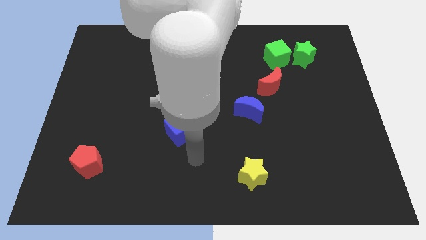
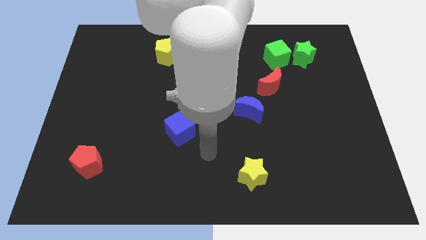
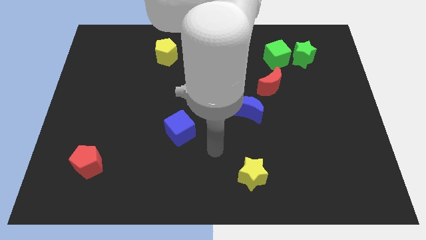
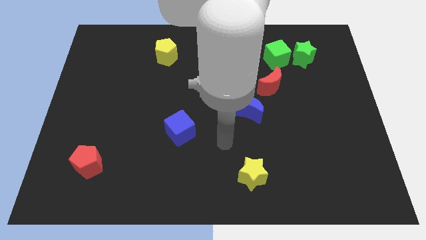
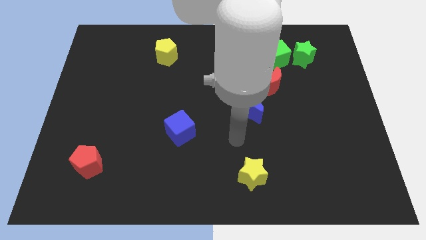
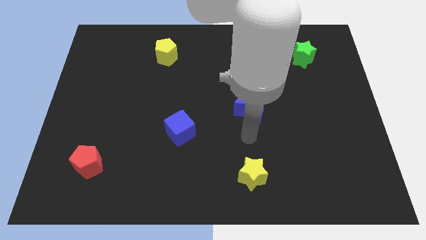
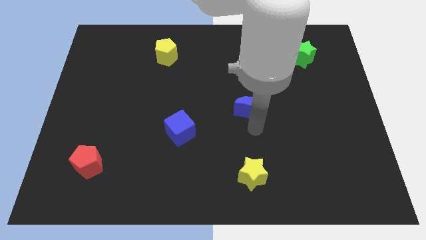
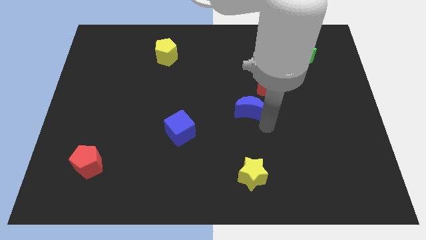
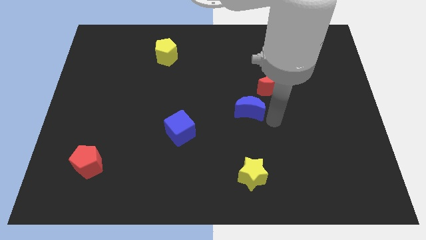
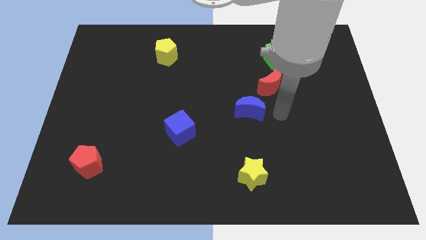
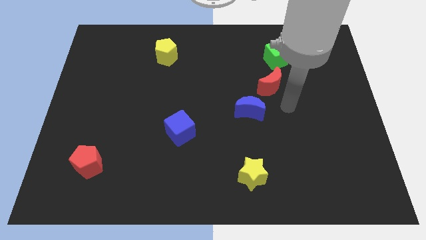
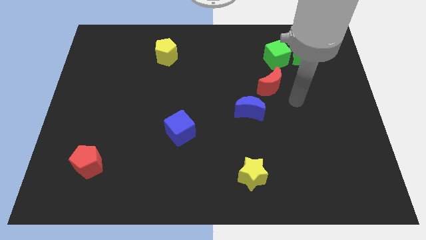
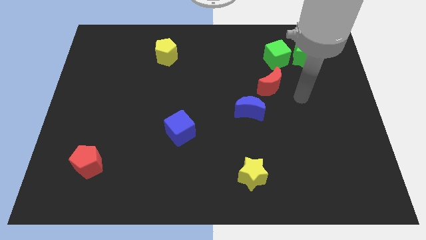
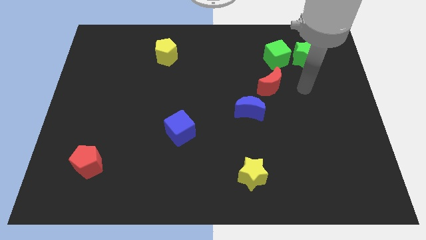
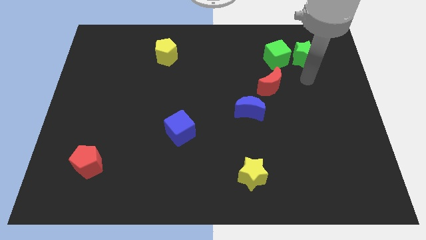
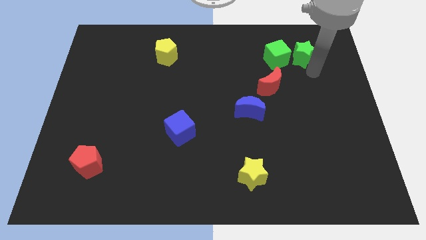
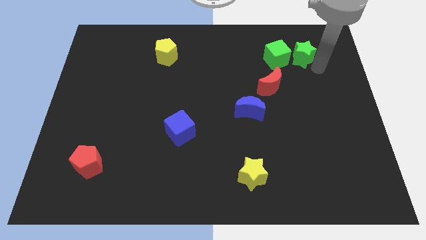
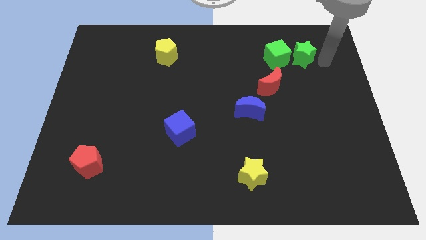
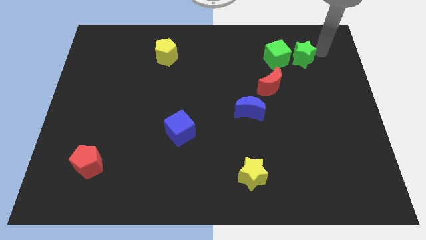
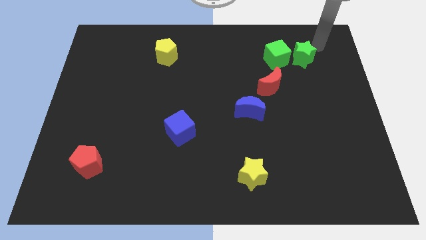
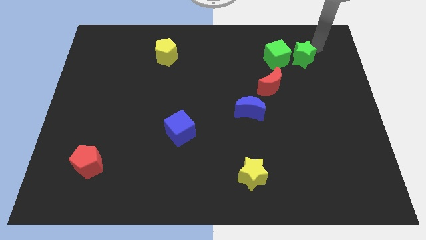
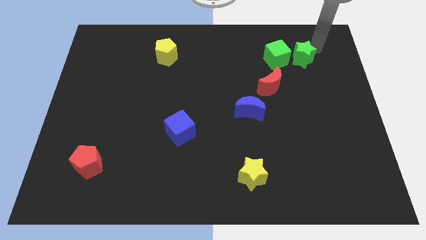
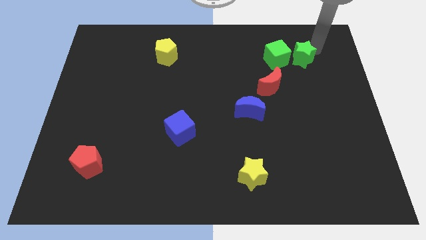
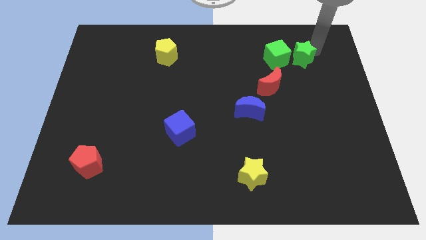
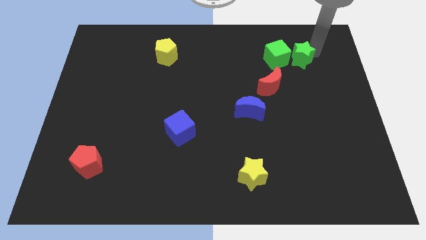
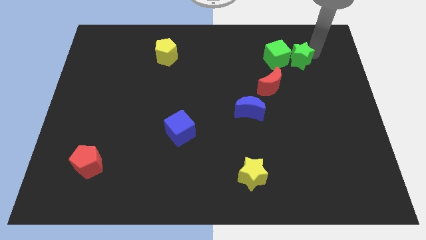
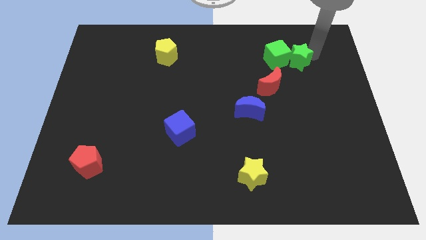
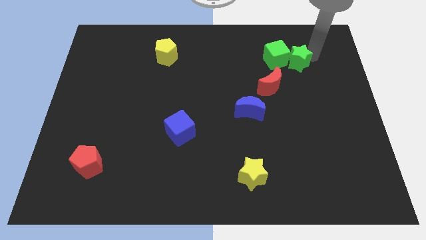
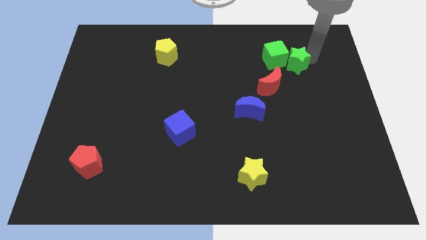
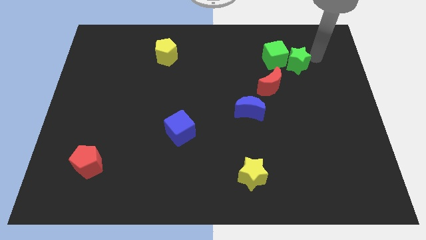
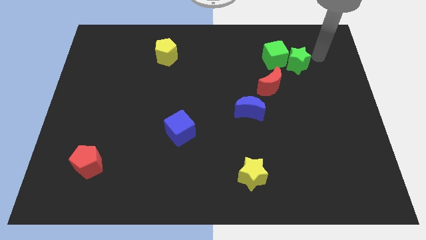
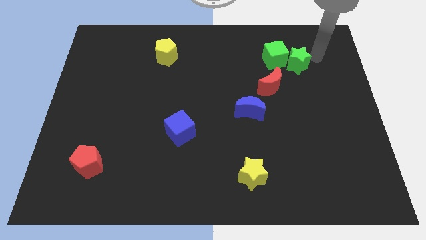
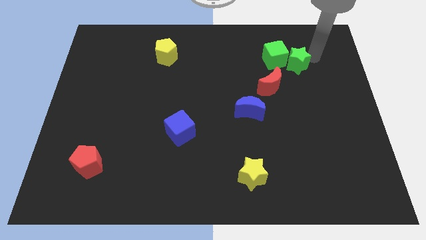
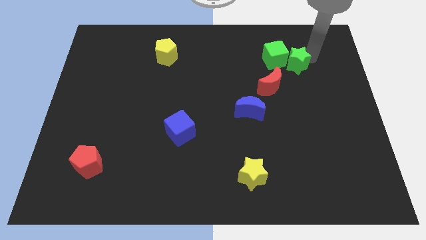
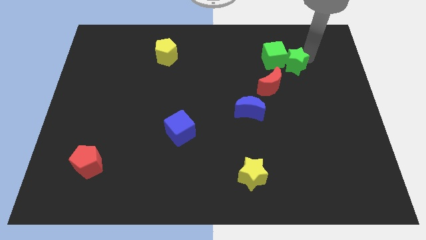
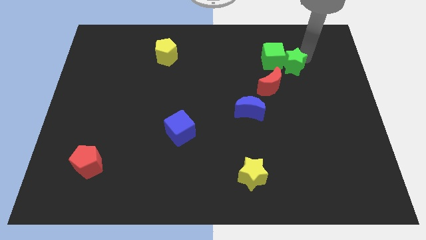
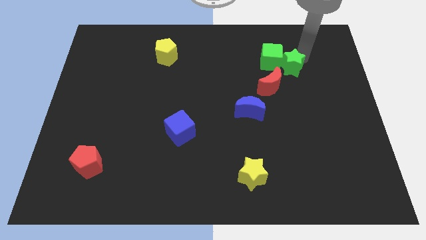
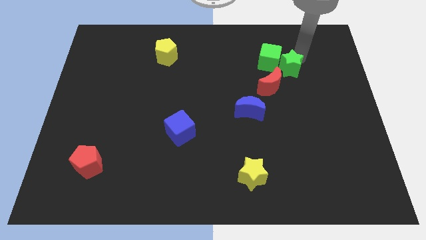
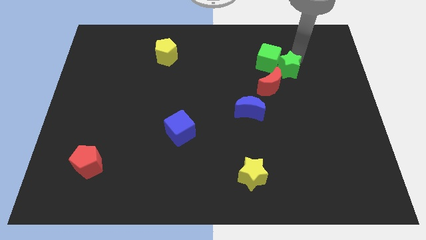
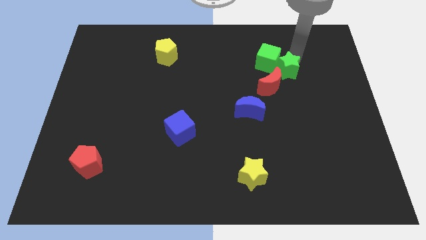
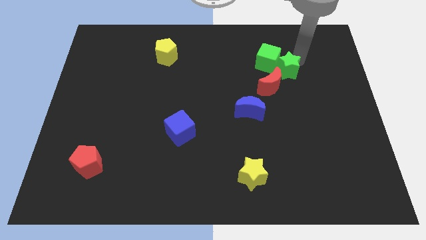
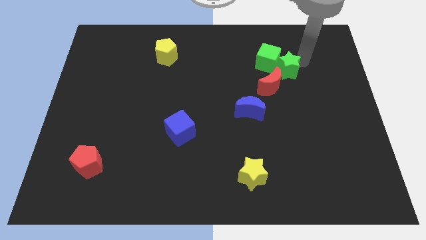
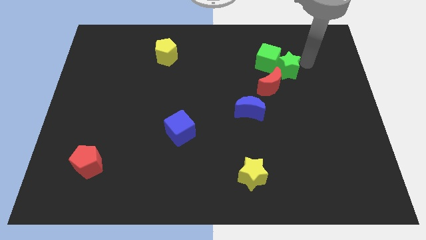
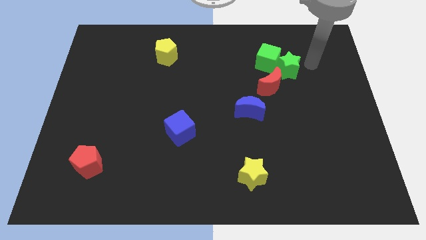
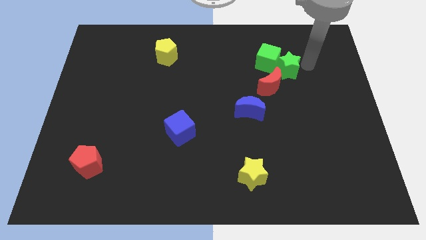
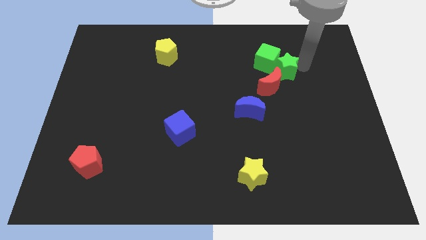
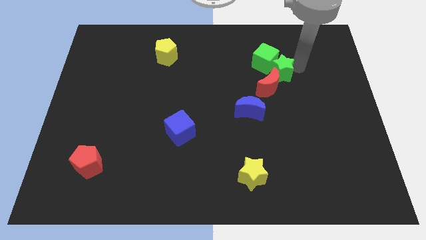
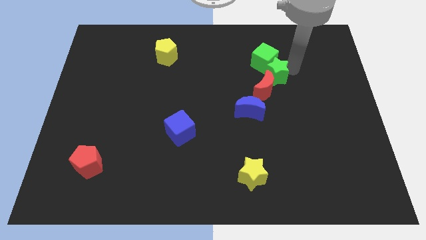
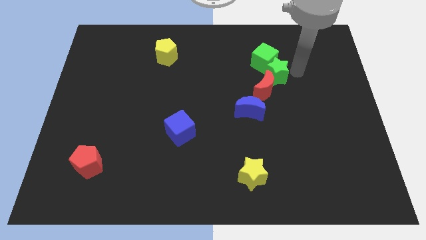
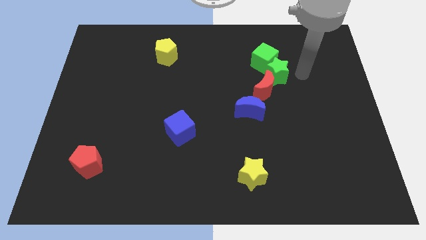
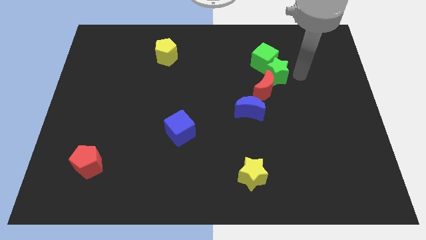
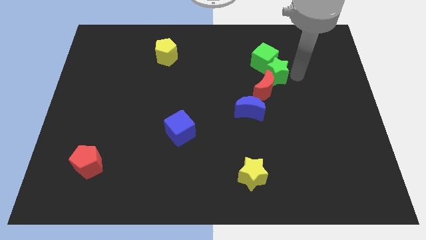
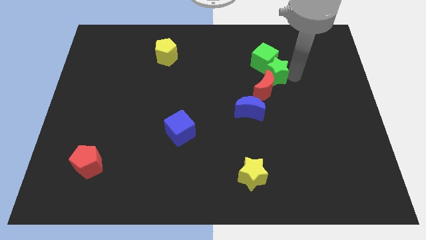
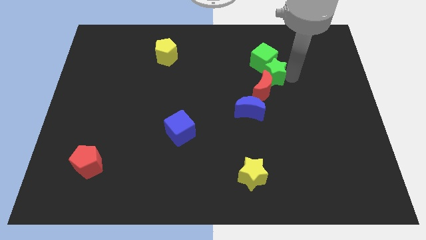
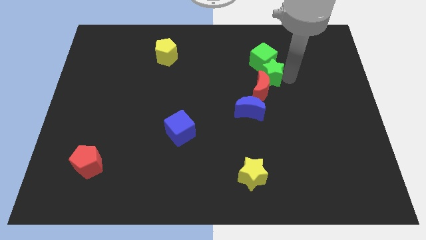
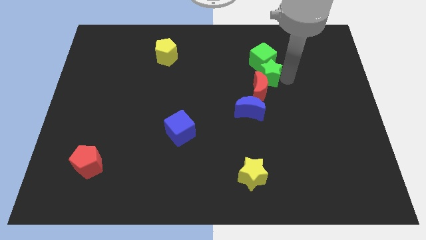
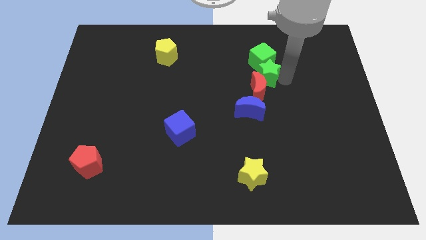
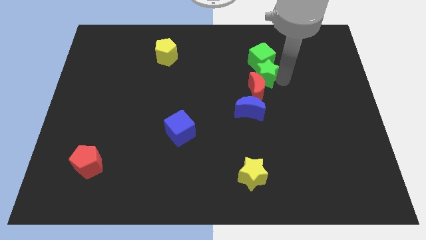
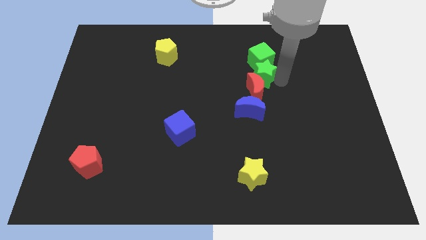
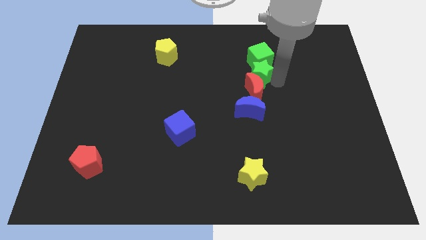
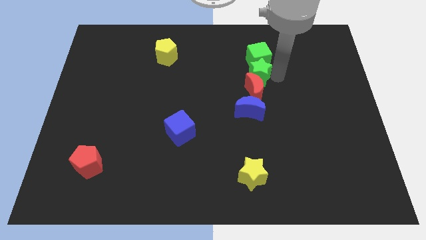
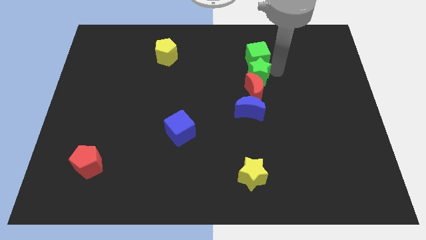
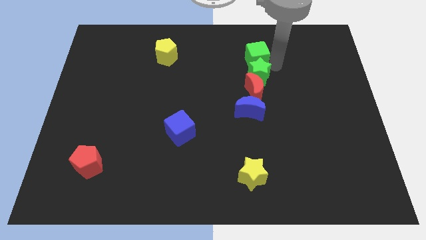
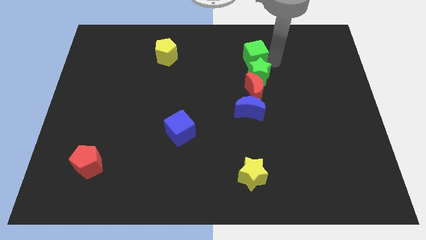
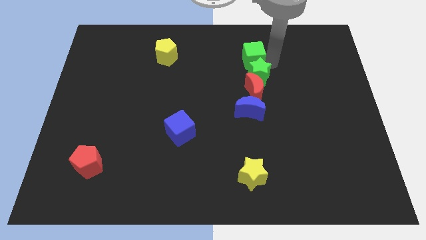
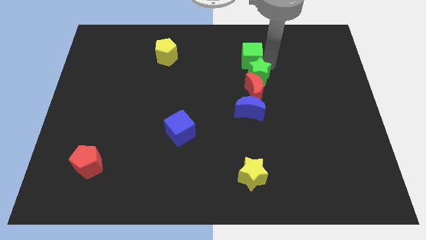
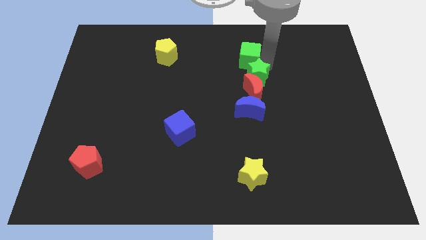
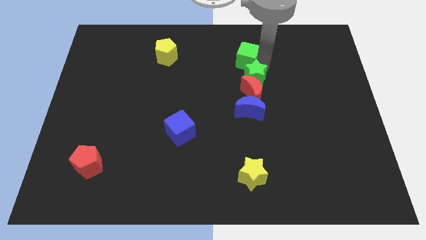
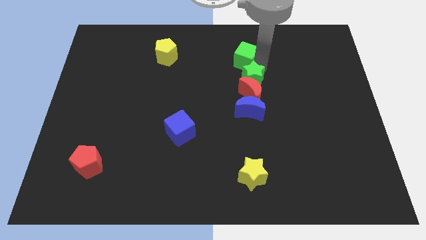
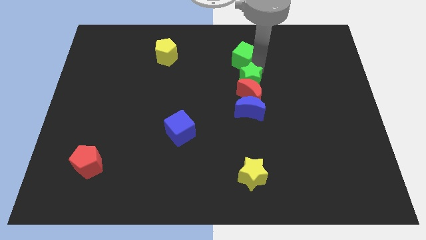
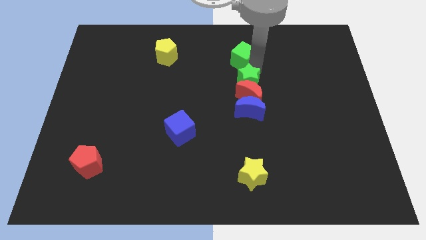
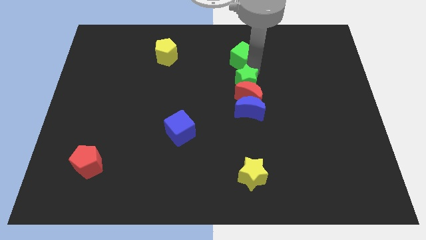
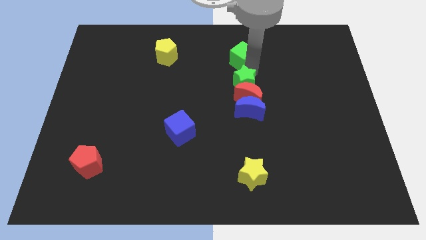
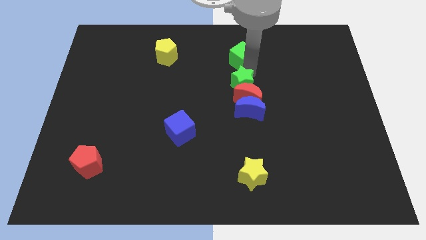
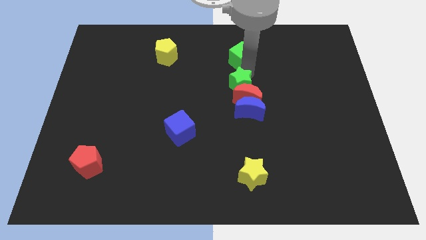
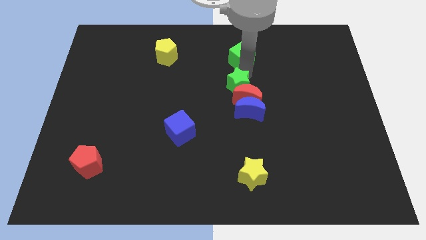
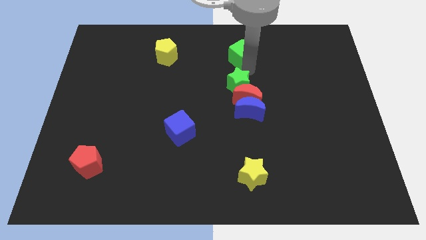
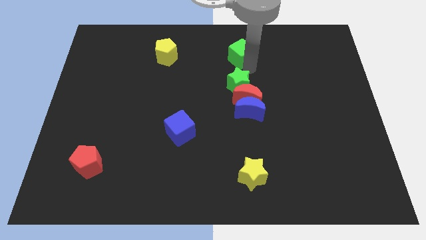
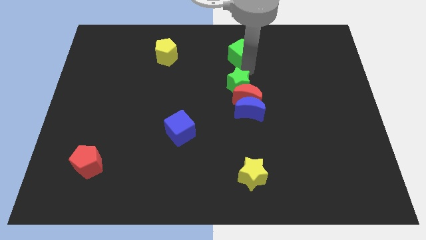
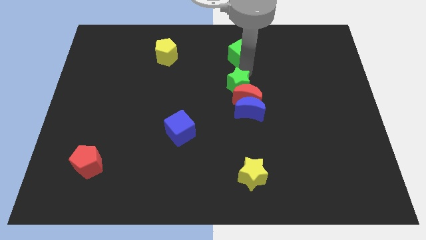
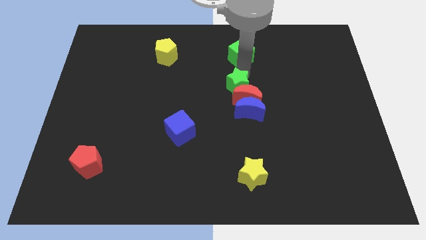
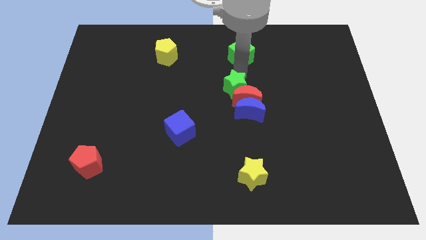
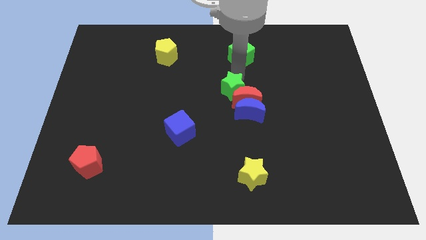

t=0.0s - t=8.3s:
push the green star down and left
